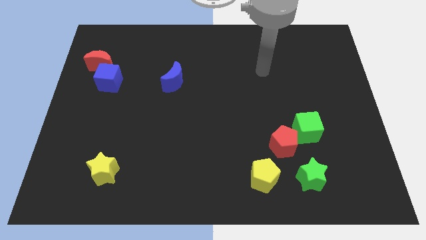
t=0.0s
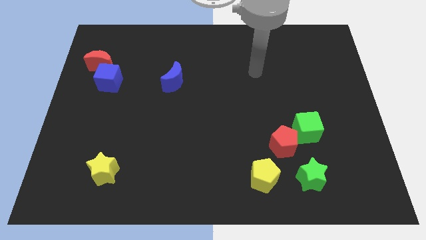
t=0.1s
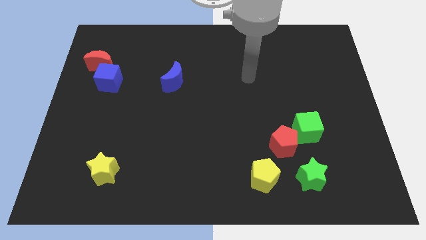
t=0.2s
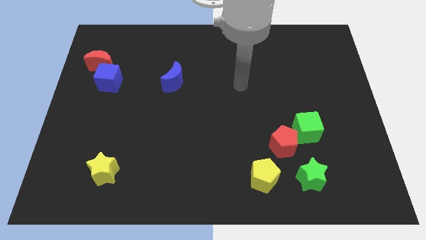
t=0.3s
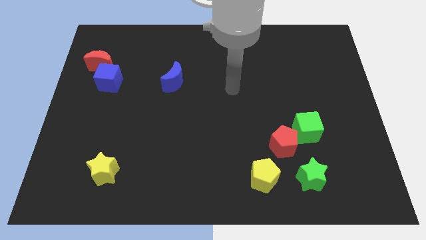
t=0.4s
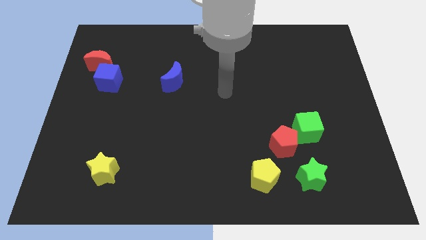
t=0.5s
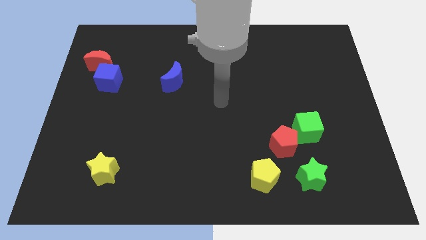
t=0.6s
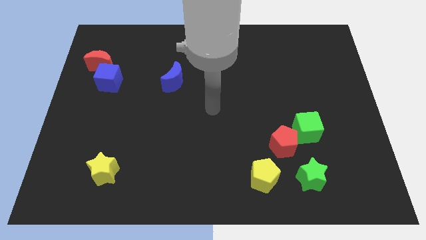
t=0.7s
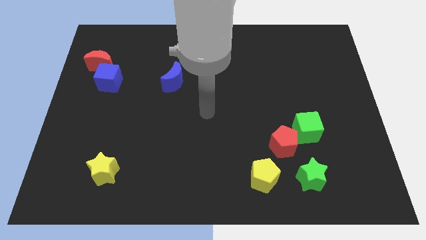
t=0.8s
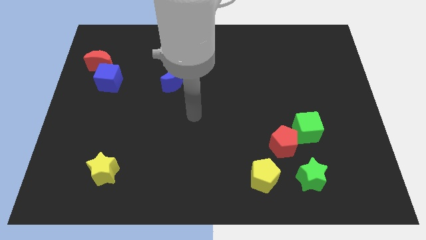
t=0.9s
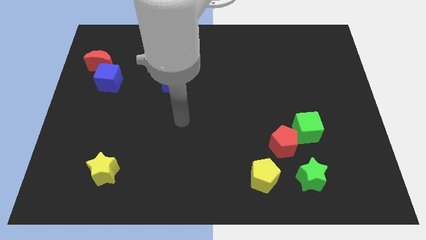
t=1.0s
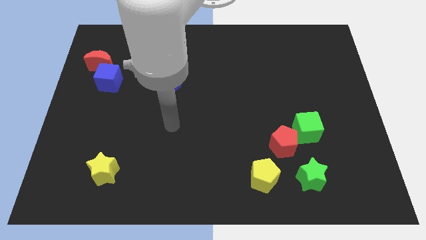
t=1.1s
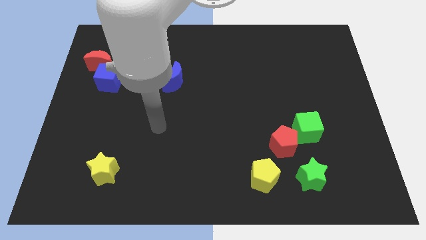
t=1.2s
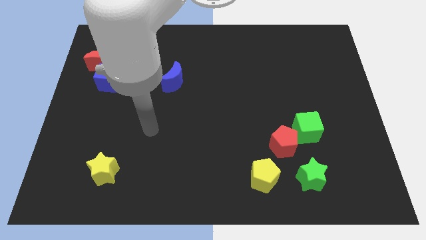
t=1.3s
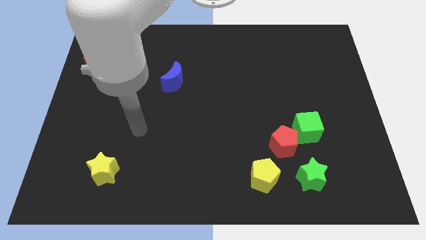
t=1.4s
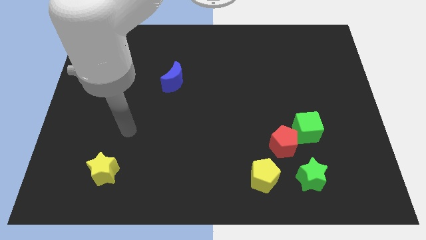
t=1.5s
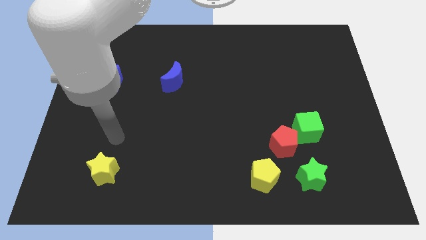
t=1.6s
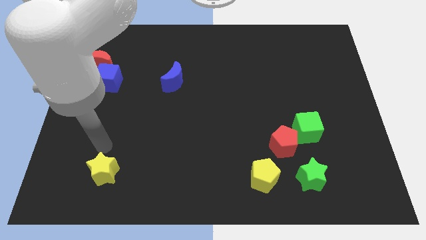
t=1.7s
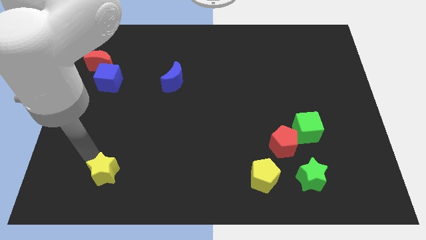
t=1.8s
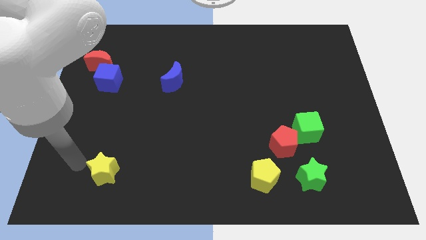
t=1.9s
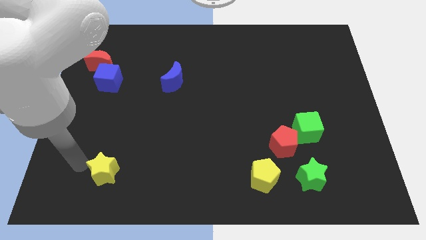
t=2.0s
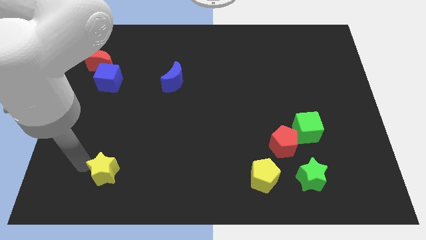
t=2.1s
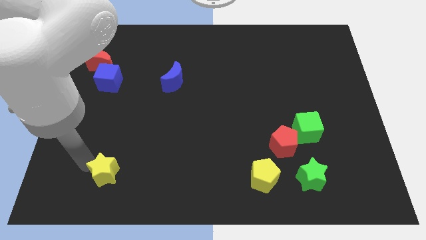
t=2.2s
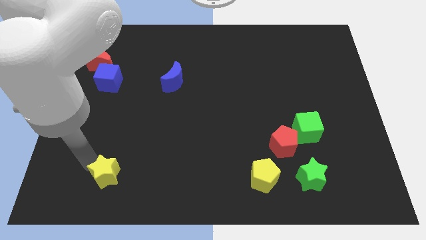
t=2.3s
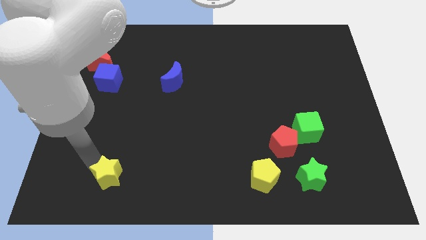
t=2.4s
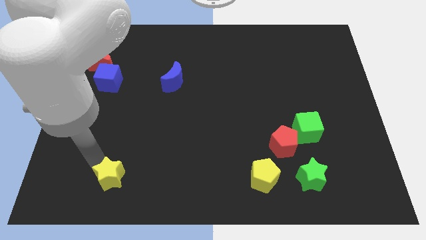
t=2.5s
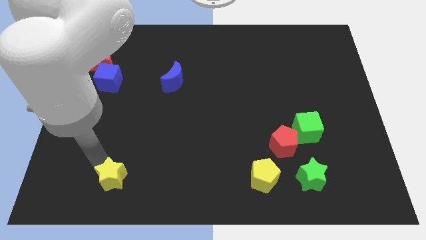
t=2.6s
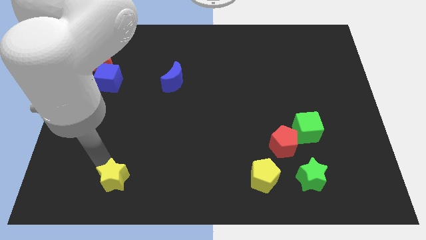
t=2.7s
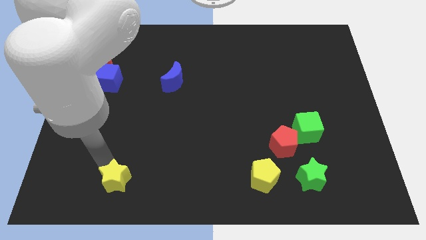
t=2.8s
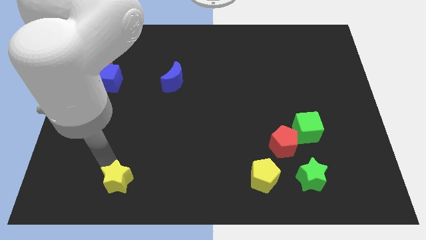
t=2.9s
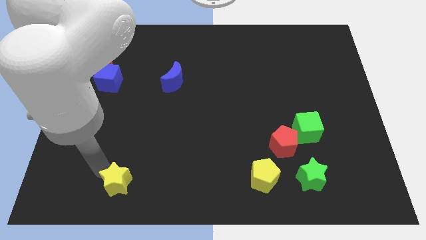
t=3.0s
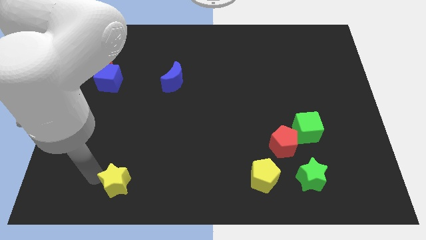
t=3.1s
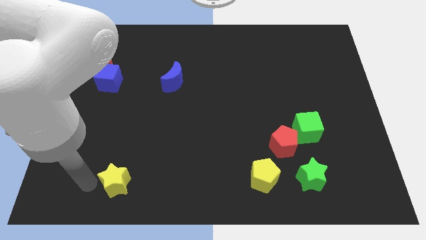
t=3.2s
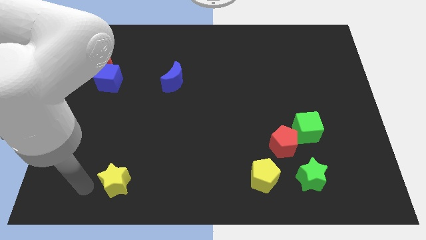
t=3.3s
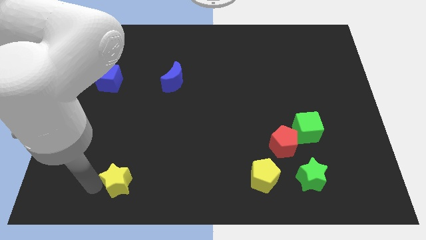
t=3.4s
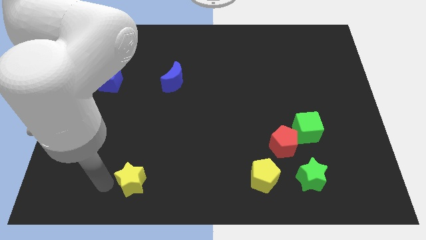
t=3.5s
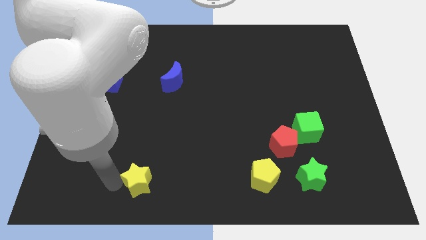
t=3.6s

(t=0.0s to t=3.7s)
push the yellow star a little to the right

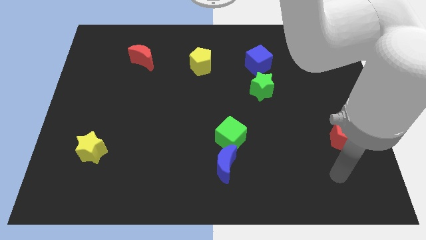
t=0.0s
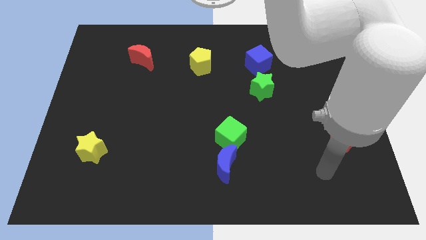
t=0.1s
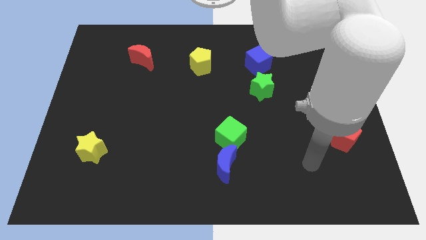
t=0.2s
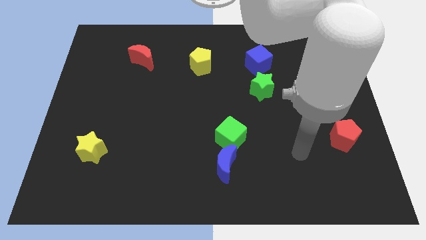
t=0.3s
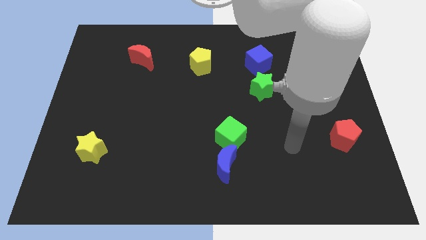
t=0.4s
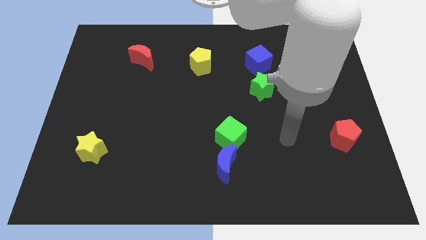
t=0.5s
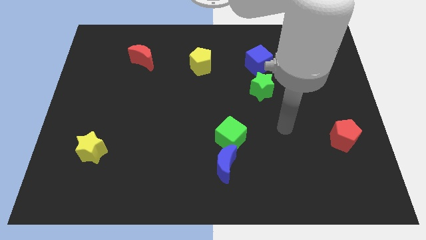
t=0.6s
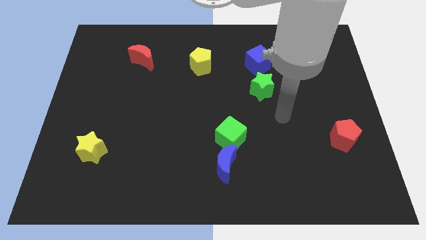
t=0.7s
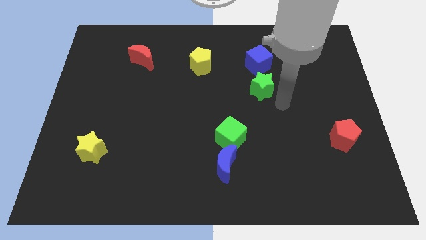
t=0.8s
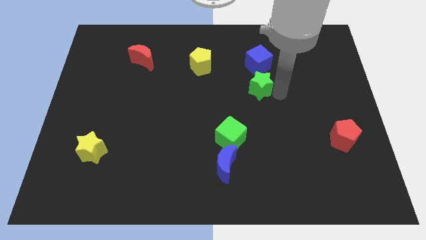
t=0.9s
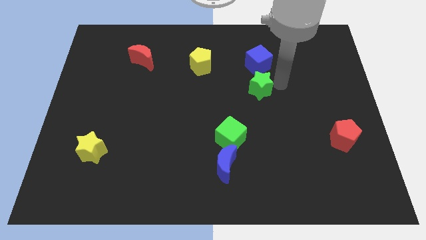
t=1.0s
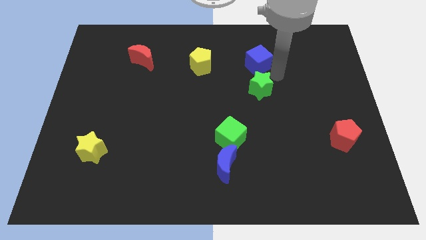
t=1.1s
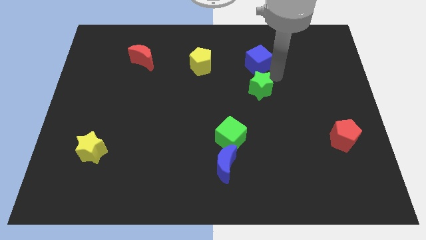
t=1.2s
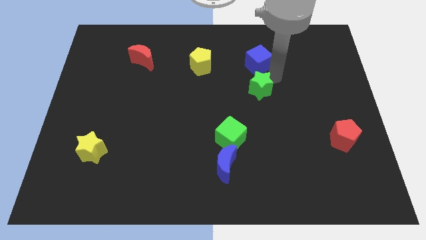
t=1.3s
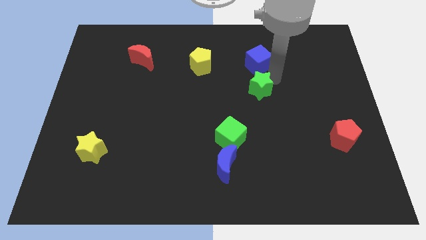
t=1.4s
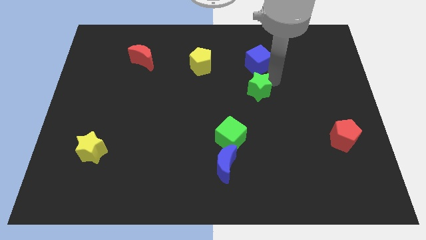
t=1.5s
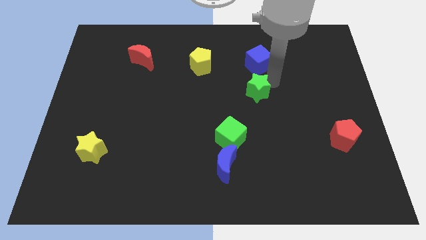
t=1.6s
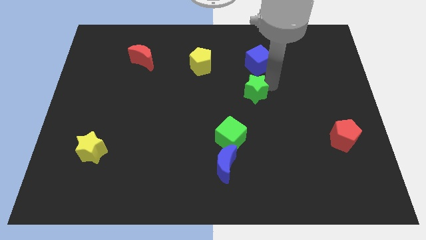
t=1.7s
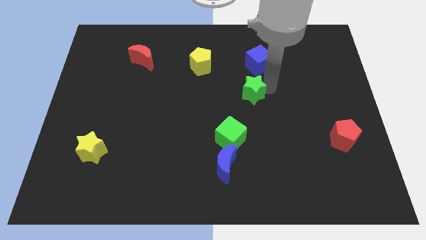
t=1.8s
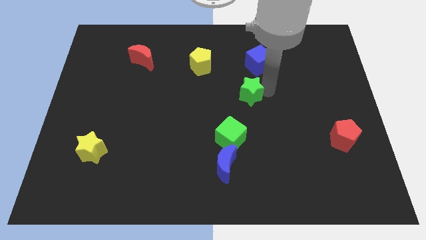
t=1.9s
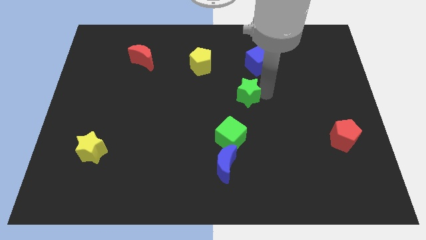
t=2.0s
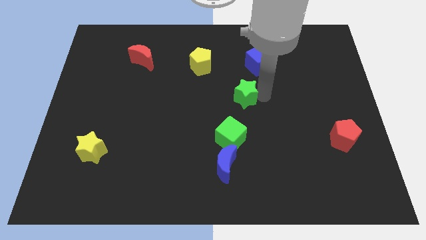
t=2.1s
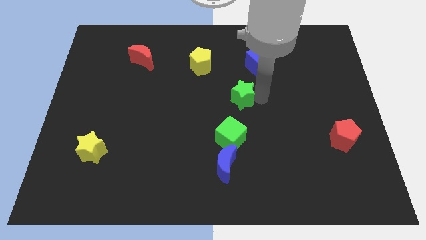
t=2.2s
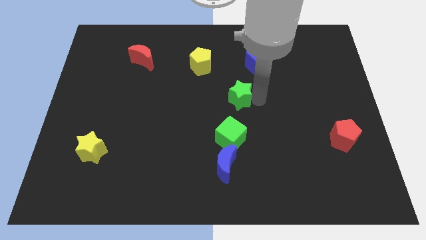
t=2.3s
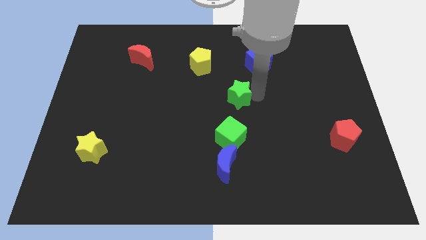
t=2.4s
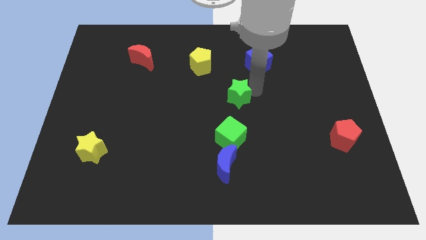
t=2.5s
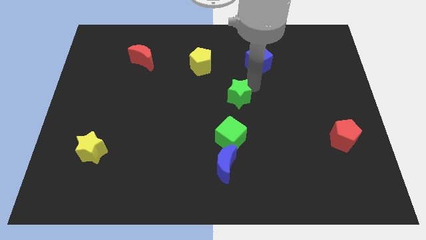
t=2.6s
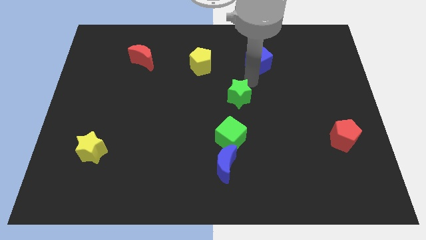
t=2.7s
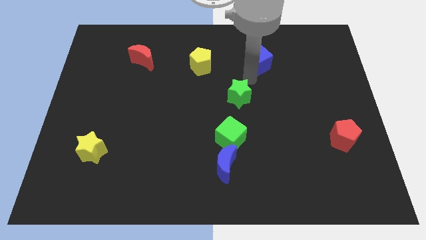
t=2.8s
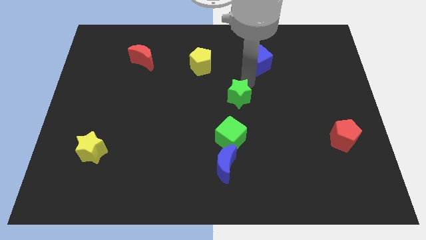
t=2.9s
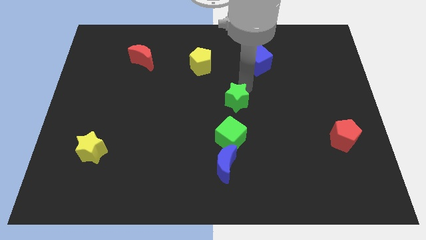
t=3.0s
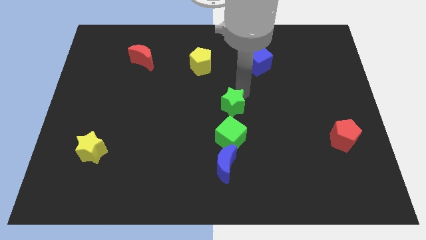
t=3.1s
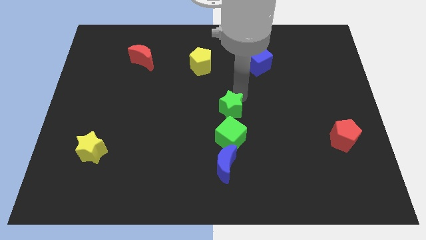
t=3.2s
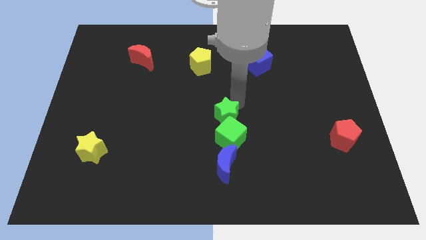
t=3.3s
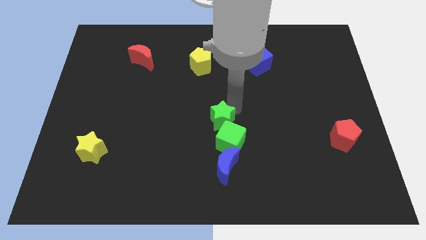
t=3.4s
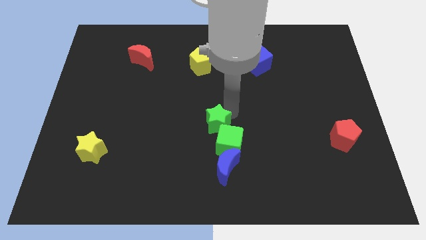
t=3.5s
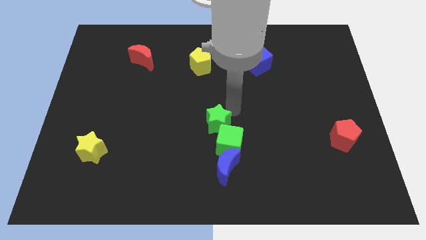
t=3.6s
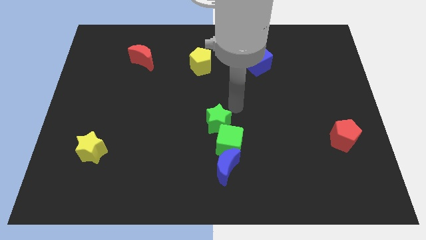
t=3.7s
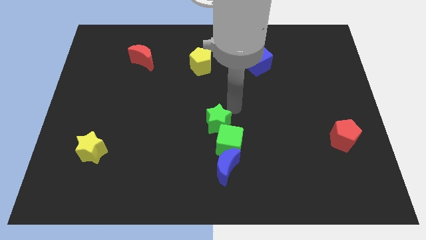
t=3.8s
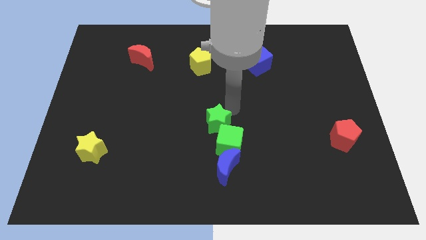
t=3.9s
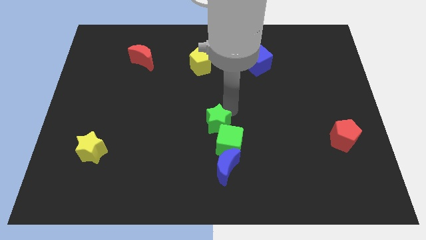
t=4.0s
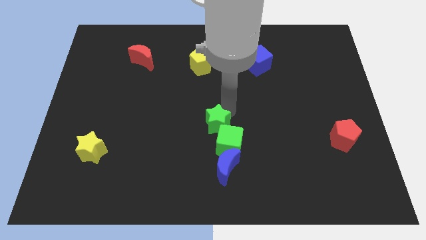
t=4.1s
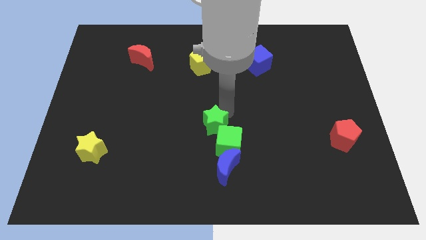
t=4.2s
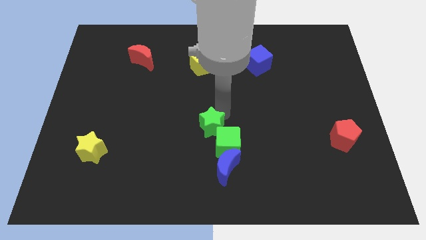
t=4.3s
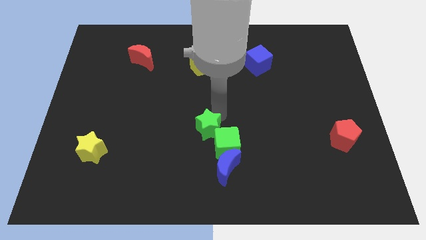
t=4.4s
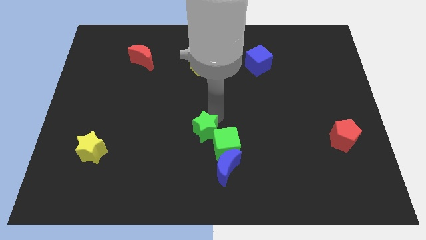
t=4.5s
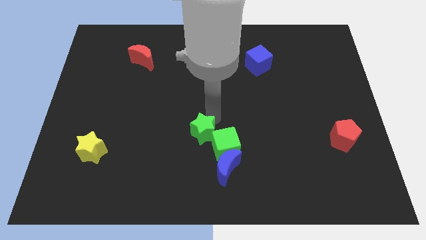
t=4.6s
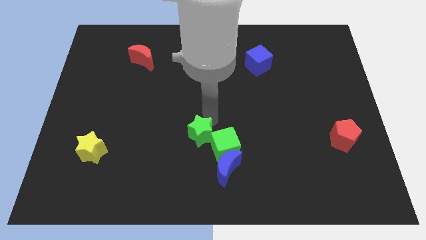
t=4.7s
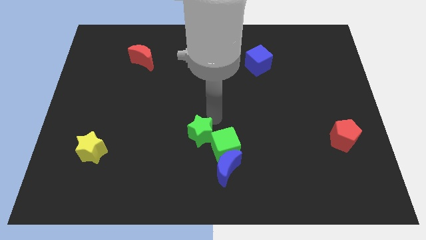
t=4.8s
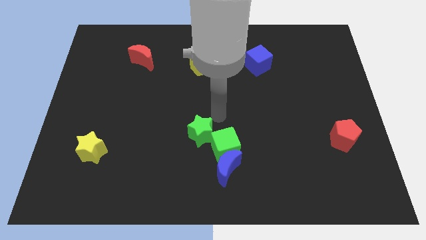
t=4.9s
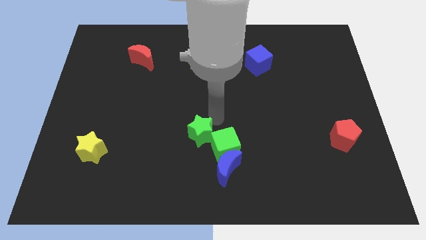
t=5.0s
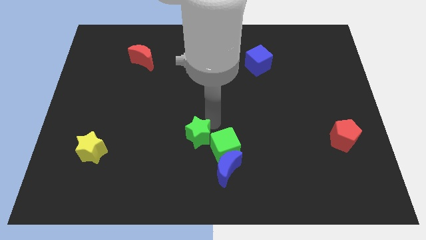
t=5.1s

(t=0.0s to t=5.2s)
move the green star downwards and left diagonally
